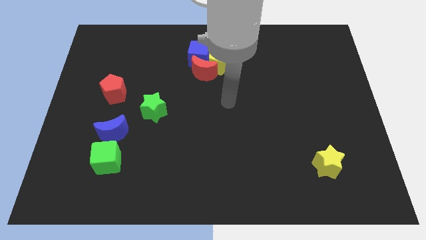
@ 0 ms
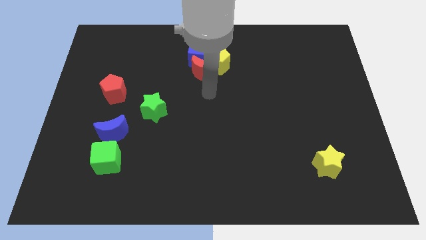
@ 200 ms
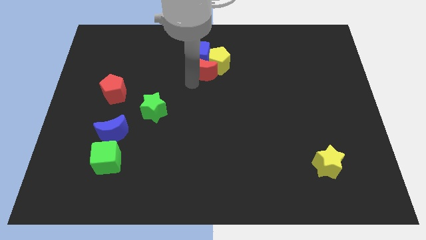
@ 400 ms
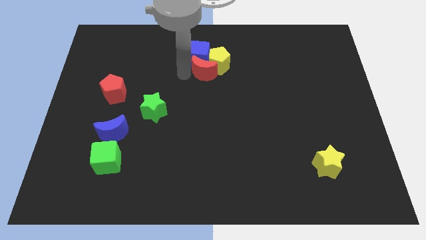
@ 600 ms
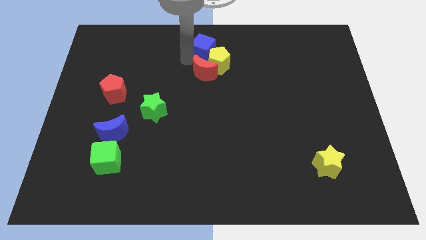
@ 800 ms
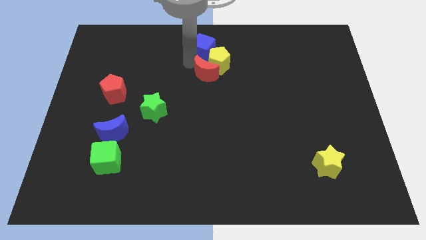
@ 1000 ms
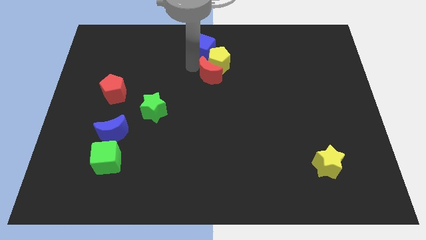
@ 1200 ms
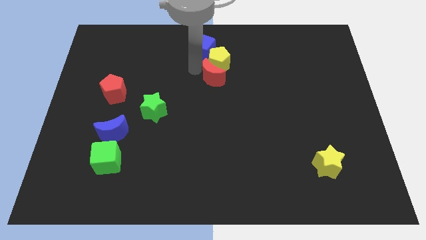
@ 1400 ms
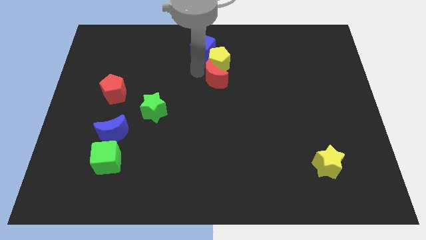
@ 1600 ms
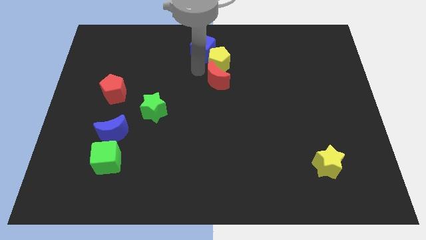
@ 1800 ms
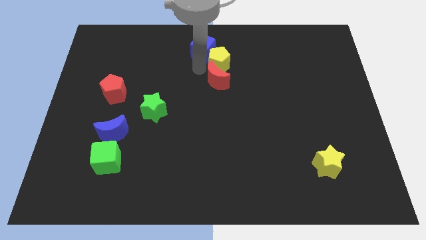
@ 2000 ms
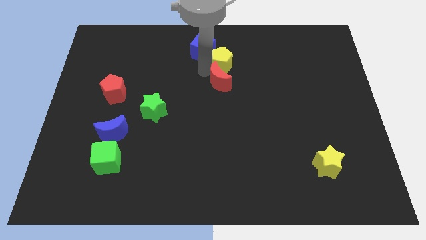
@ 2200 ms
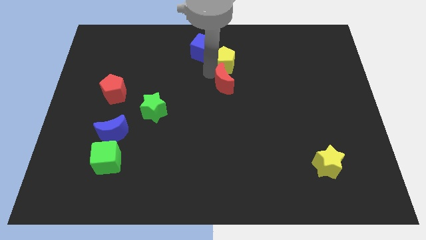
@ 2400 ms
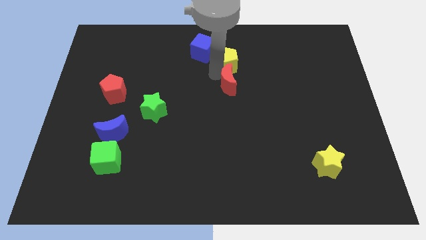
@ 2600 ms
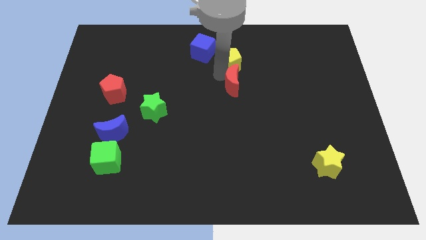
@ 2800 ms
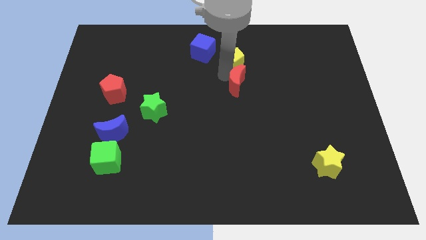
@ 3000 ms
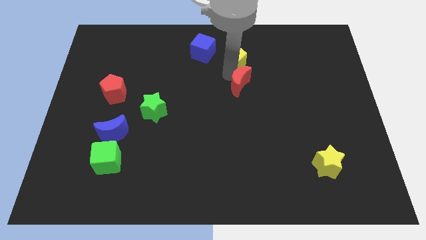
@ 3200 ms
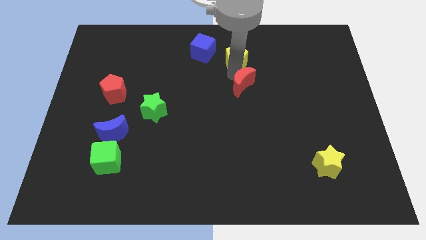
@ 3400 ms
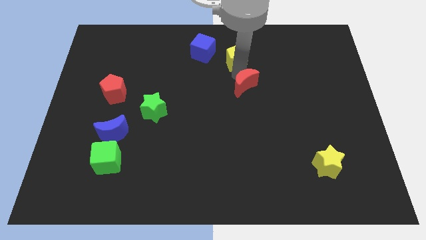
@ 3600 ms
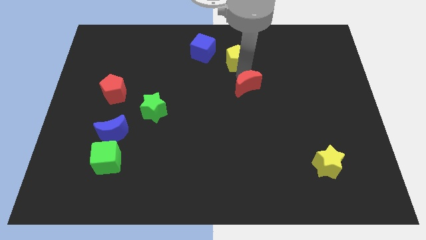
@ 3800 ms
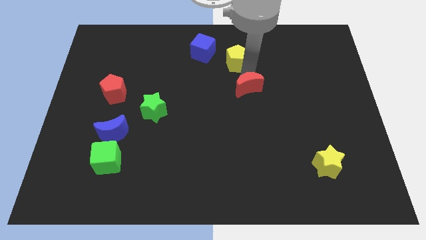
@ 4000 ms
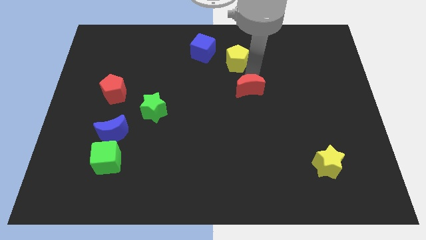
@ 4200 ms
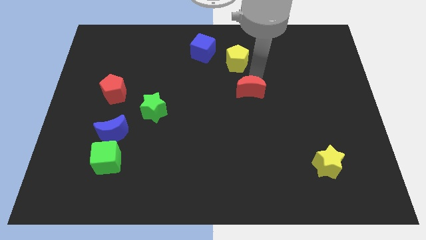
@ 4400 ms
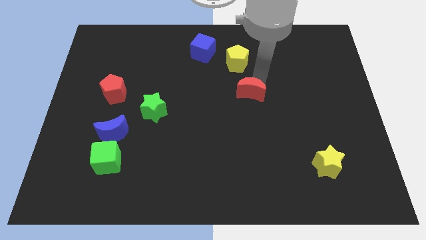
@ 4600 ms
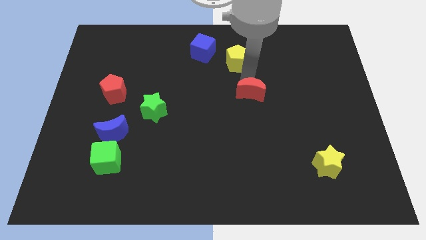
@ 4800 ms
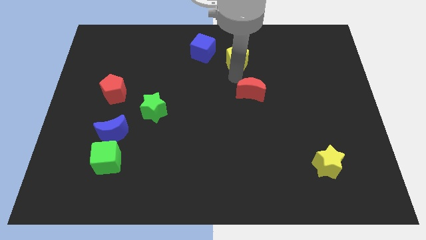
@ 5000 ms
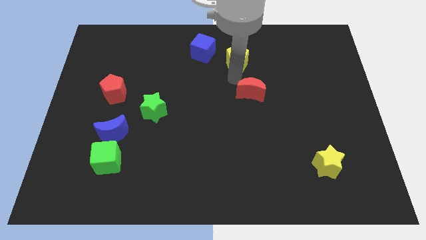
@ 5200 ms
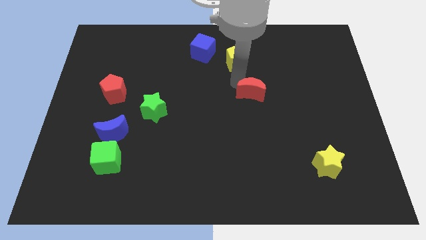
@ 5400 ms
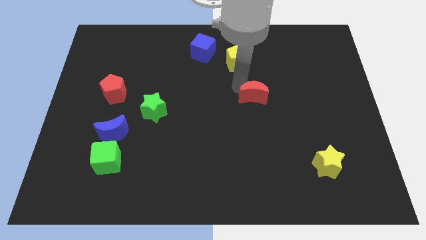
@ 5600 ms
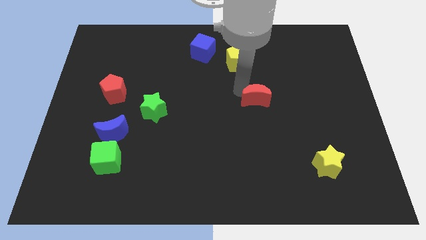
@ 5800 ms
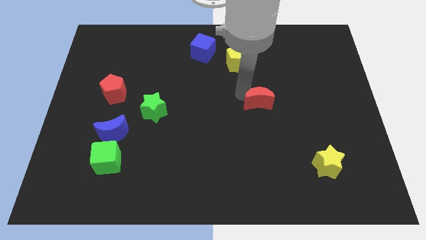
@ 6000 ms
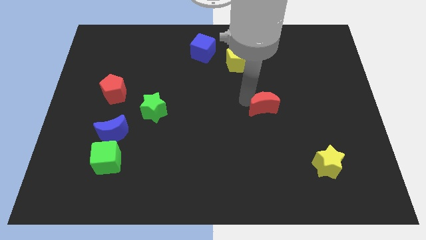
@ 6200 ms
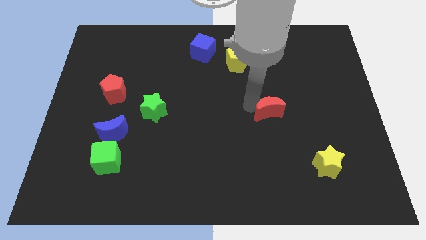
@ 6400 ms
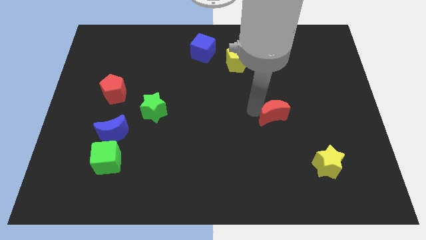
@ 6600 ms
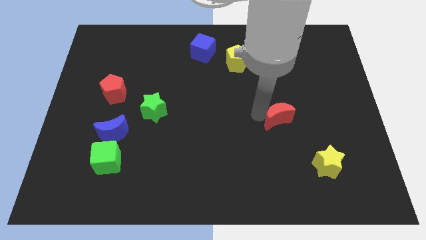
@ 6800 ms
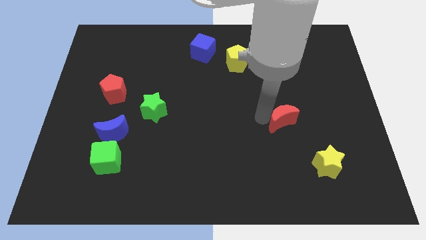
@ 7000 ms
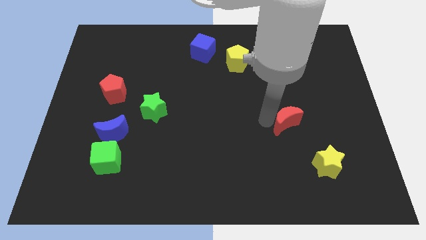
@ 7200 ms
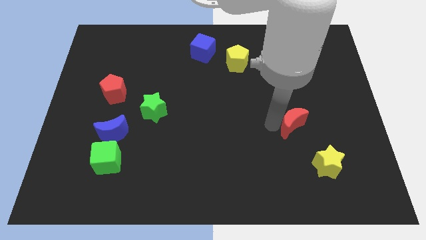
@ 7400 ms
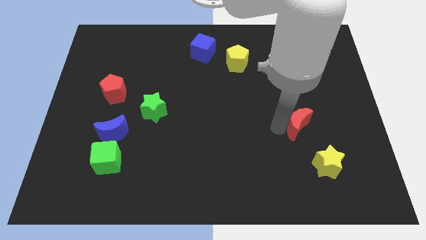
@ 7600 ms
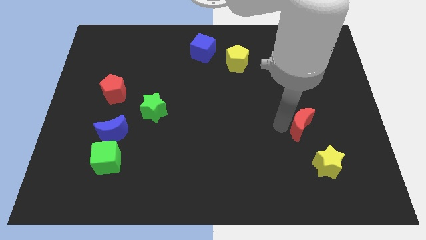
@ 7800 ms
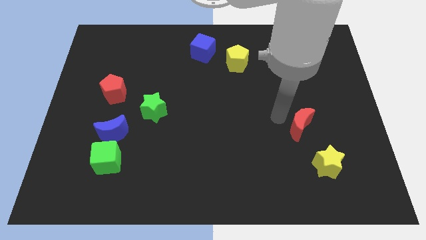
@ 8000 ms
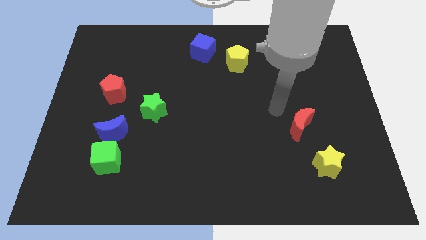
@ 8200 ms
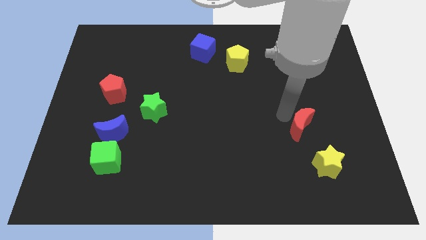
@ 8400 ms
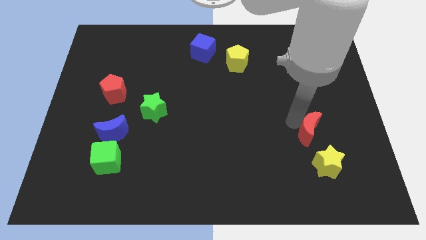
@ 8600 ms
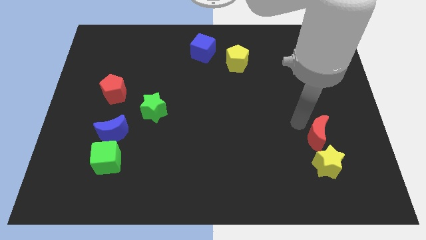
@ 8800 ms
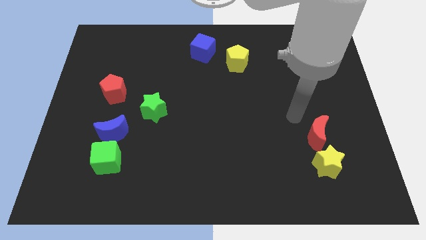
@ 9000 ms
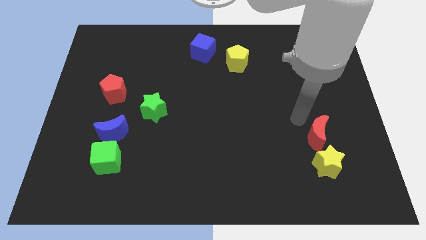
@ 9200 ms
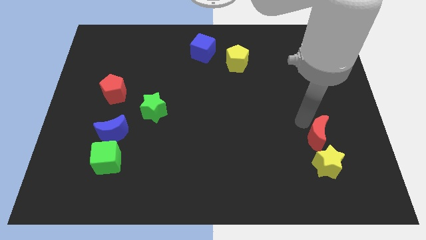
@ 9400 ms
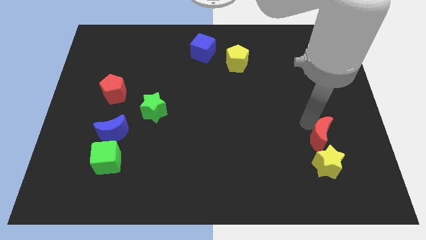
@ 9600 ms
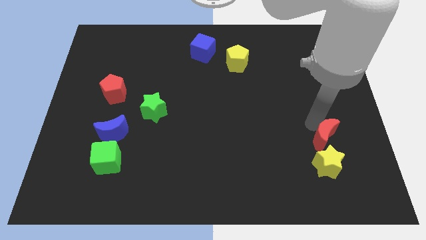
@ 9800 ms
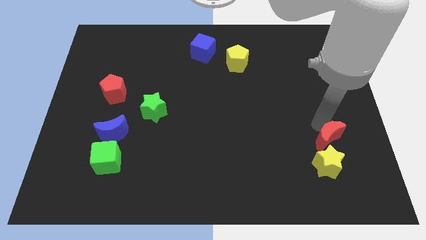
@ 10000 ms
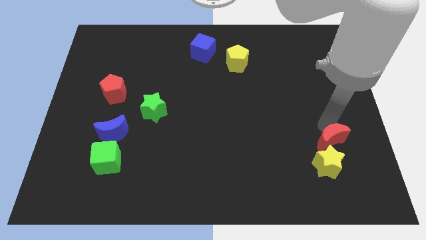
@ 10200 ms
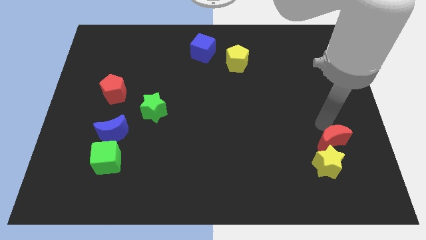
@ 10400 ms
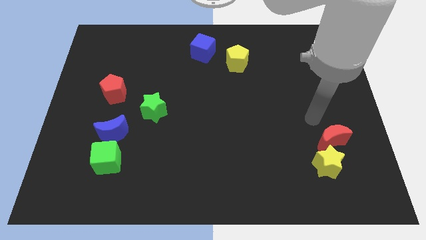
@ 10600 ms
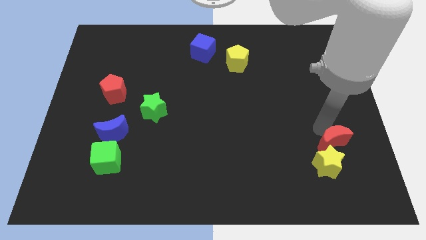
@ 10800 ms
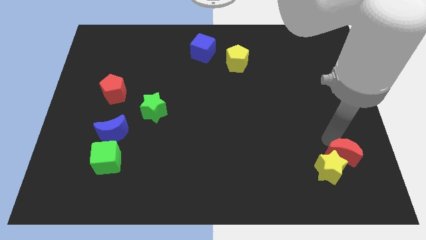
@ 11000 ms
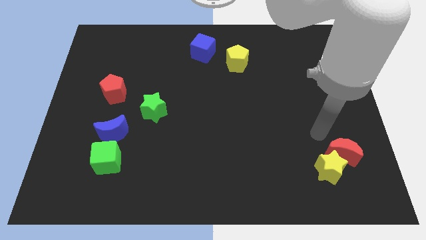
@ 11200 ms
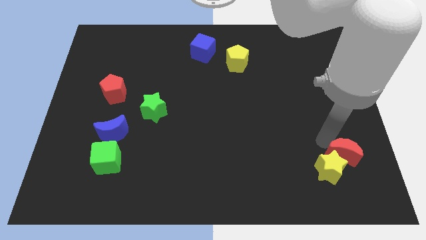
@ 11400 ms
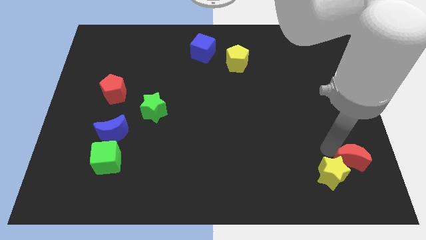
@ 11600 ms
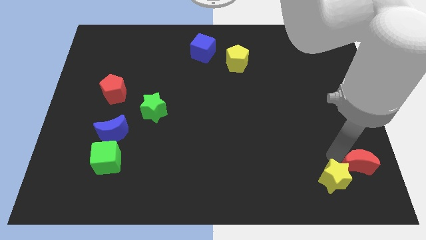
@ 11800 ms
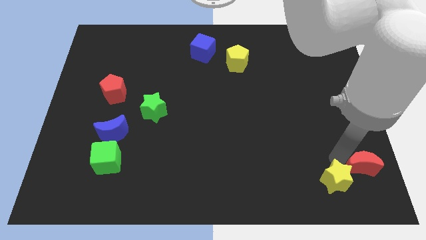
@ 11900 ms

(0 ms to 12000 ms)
push the red moon to the lower right corner
